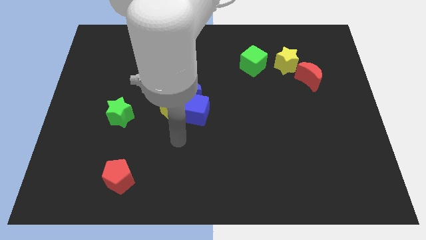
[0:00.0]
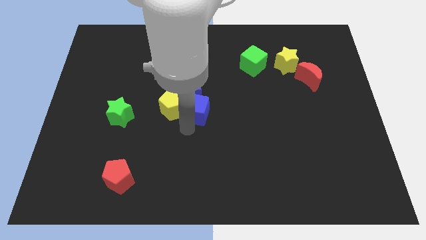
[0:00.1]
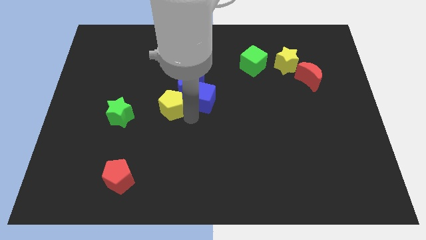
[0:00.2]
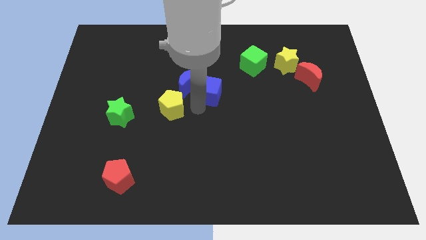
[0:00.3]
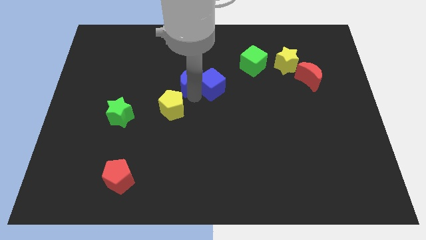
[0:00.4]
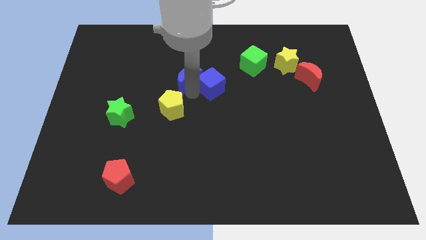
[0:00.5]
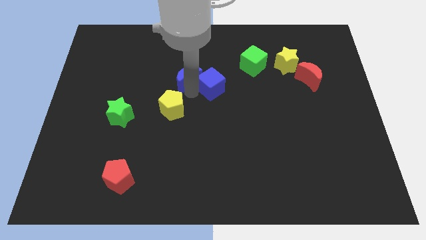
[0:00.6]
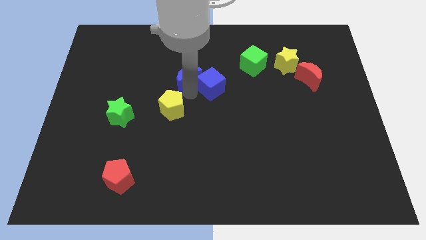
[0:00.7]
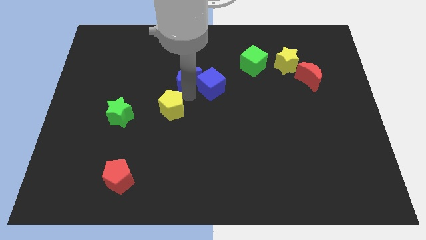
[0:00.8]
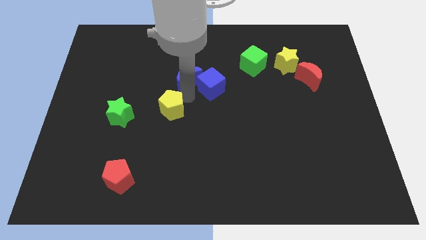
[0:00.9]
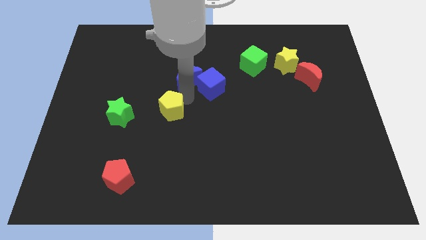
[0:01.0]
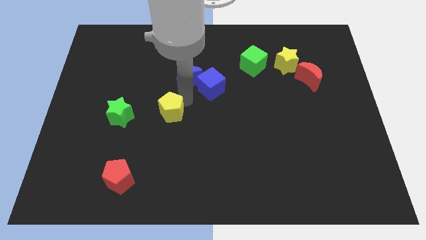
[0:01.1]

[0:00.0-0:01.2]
separate the yellow pentagon from the blue moon and blue cube

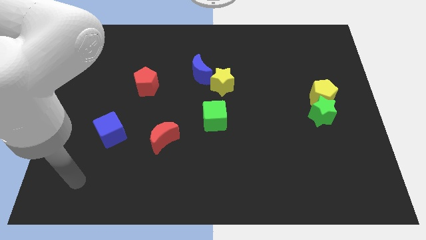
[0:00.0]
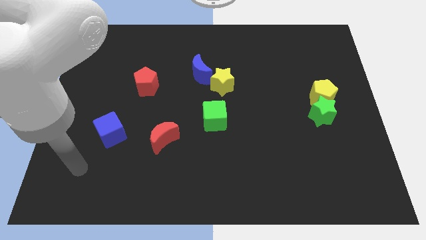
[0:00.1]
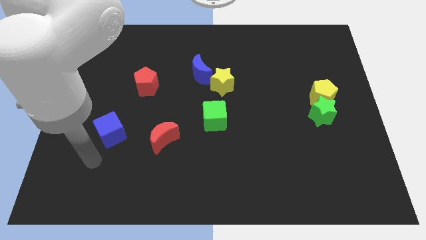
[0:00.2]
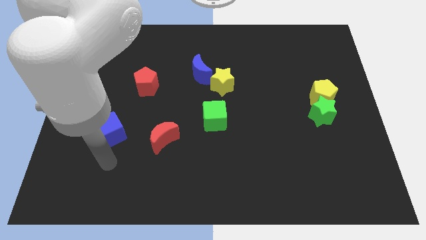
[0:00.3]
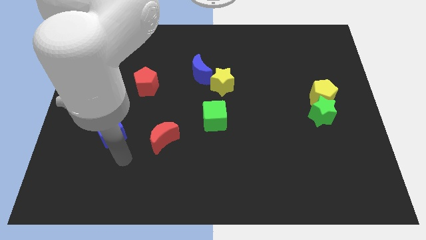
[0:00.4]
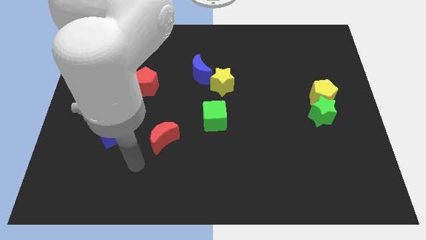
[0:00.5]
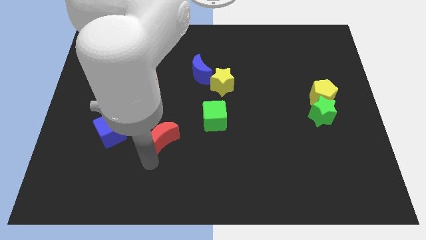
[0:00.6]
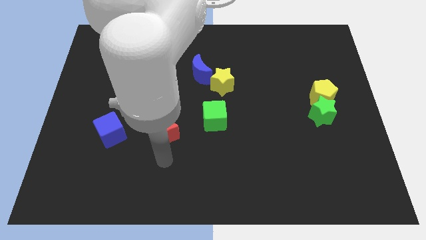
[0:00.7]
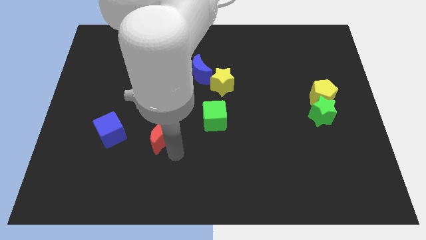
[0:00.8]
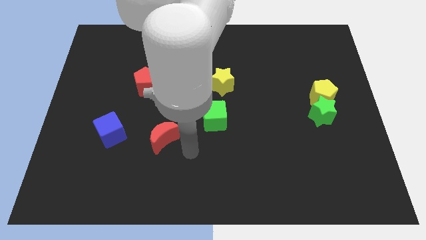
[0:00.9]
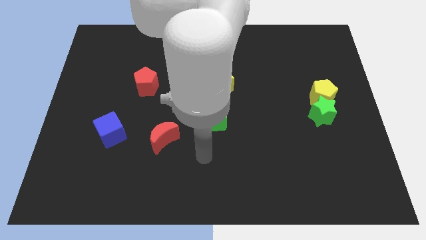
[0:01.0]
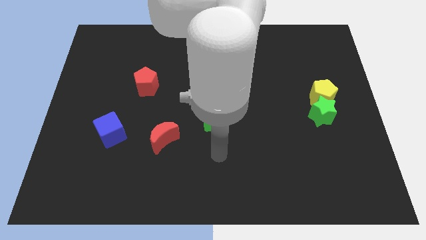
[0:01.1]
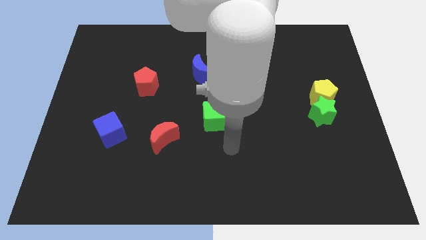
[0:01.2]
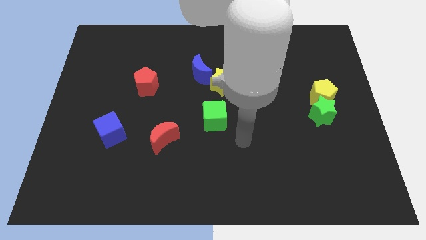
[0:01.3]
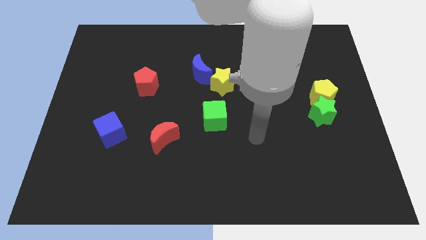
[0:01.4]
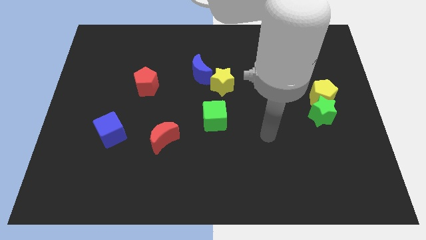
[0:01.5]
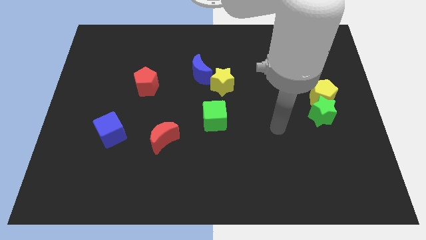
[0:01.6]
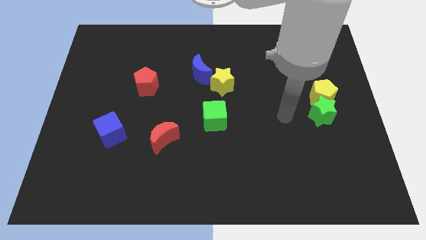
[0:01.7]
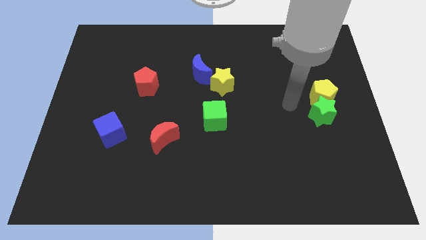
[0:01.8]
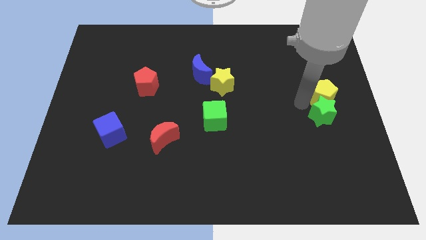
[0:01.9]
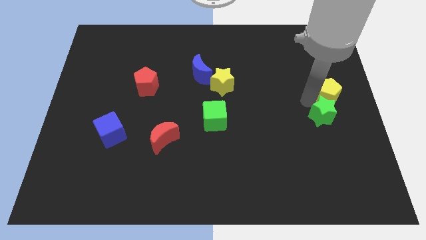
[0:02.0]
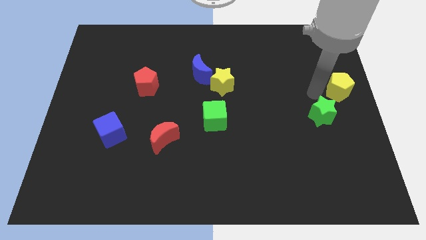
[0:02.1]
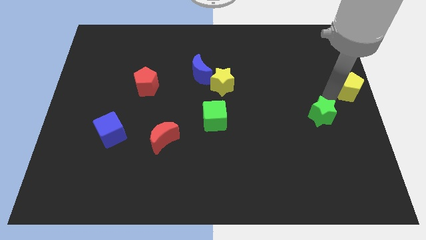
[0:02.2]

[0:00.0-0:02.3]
pull the green star apart from the yellow pentagon

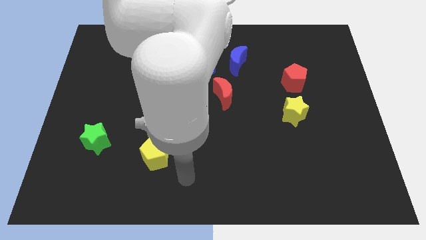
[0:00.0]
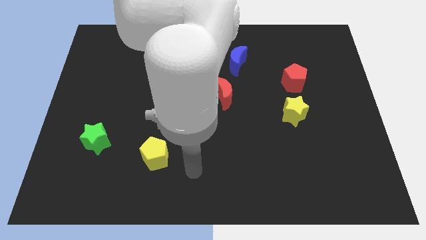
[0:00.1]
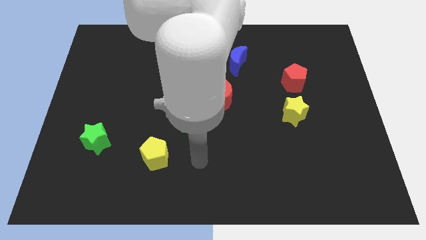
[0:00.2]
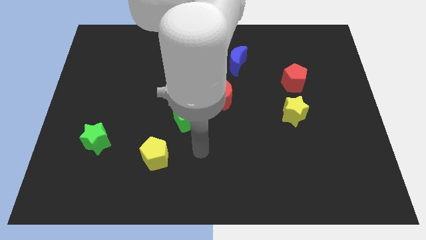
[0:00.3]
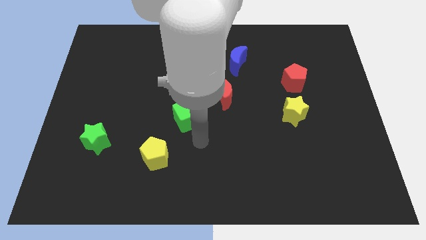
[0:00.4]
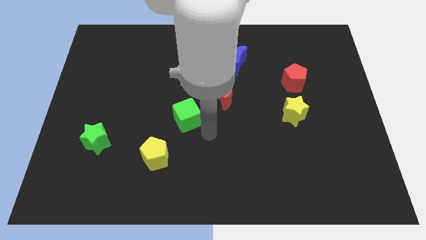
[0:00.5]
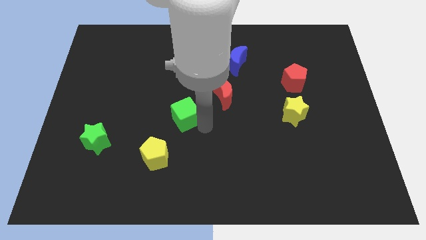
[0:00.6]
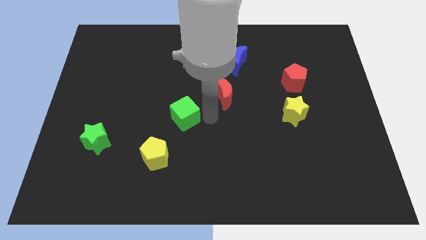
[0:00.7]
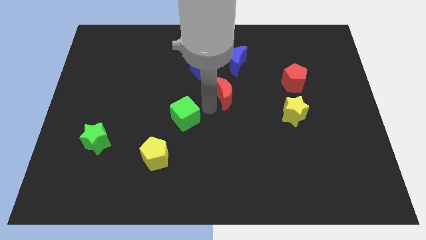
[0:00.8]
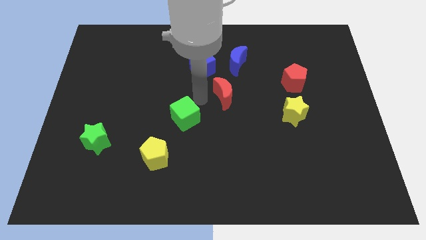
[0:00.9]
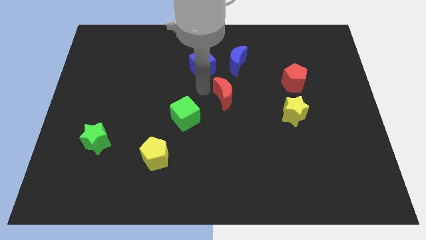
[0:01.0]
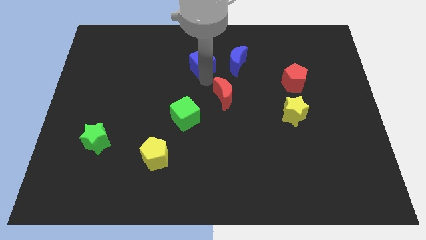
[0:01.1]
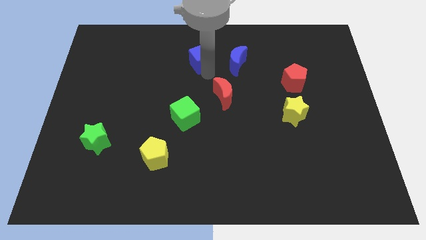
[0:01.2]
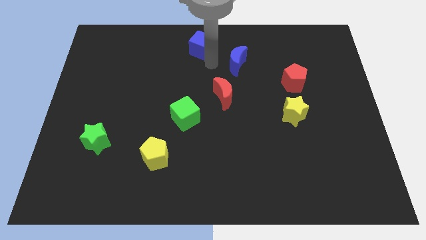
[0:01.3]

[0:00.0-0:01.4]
move the blue moon away from the blue cube

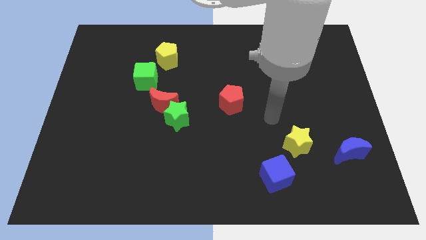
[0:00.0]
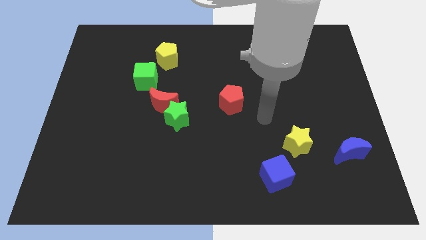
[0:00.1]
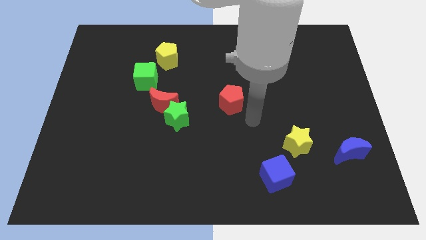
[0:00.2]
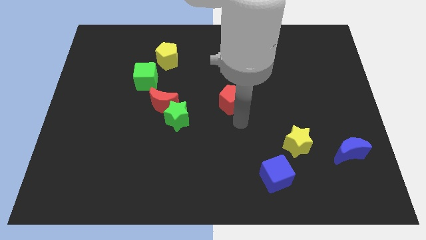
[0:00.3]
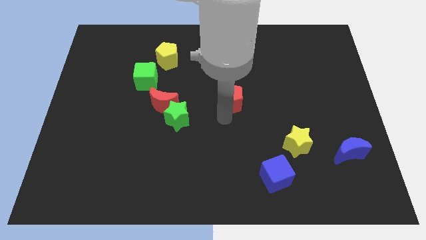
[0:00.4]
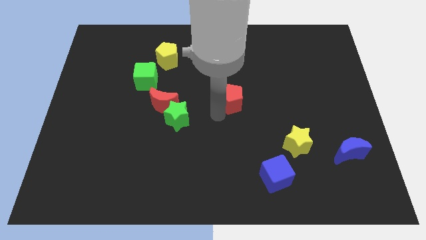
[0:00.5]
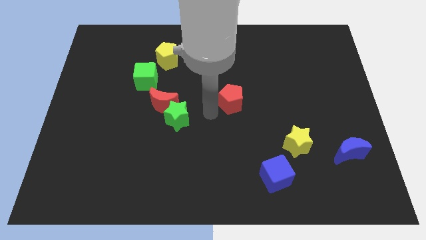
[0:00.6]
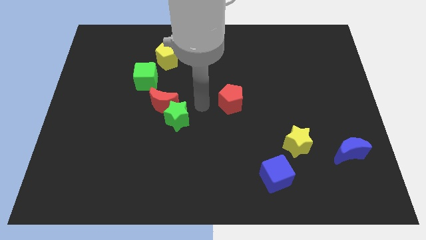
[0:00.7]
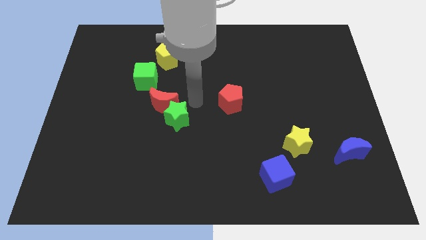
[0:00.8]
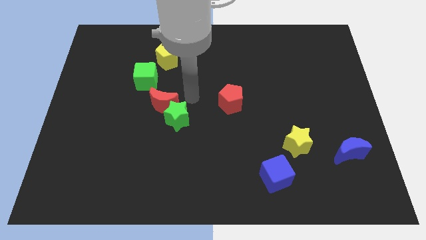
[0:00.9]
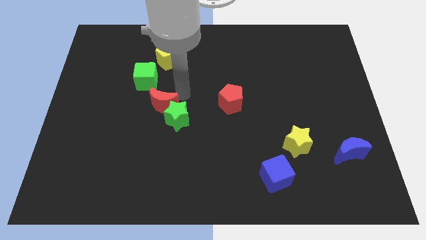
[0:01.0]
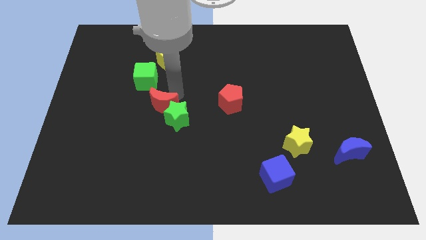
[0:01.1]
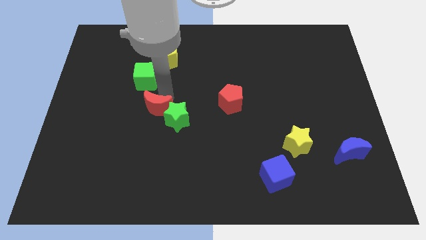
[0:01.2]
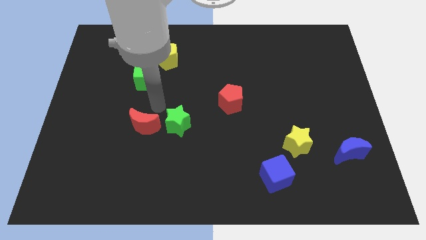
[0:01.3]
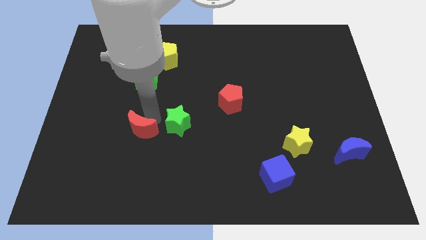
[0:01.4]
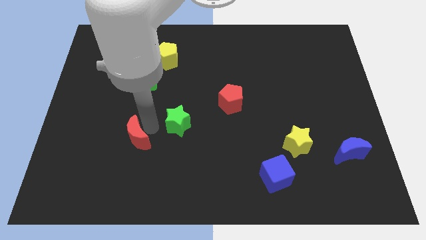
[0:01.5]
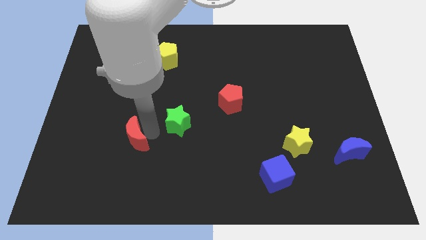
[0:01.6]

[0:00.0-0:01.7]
separate the green star from the red moon

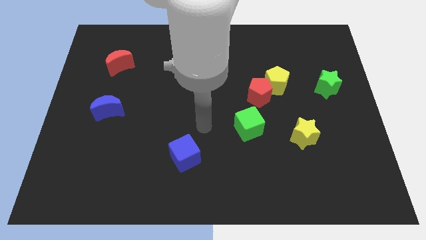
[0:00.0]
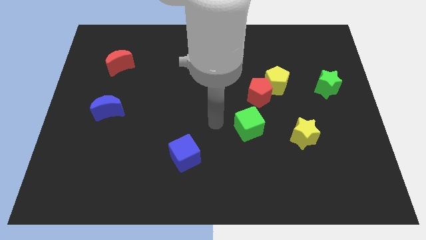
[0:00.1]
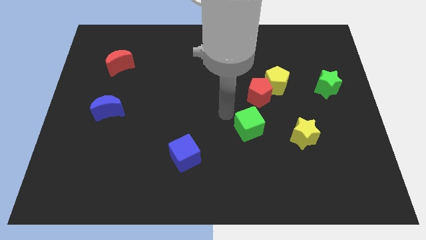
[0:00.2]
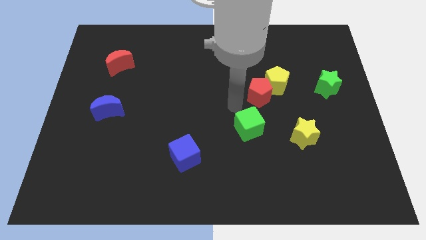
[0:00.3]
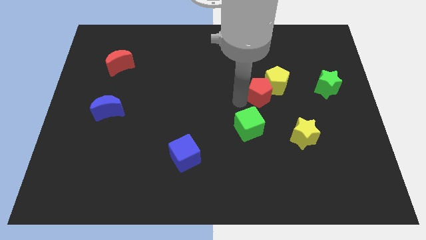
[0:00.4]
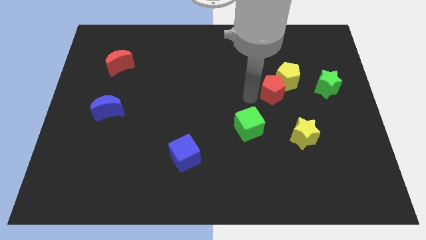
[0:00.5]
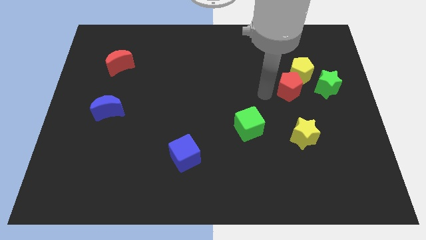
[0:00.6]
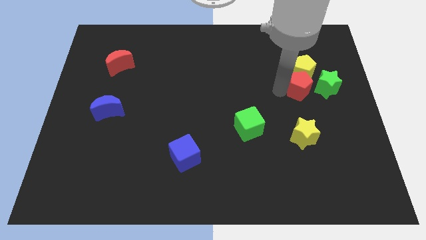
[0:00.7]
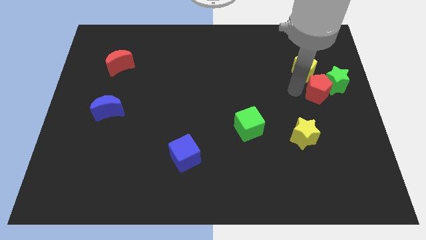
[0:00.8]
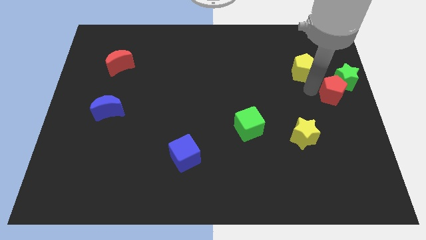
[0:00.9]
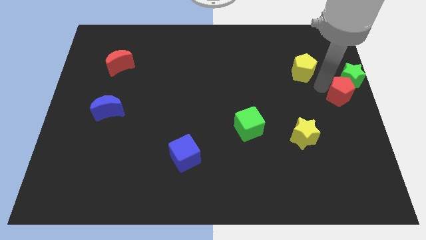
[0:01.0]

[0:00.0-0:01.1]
pull the yellow pentagon apart from the red pentagon

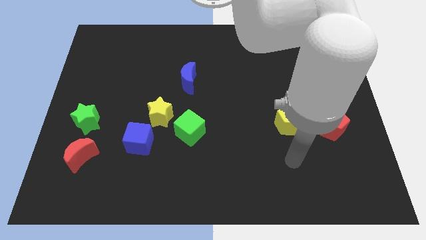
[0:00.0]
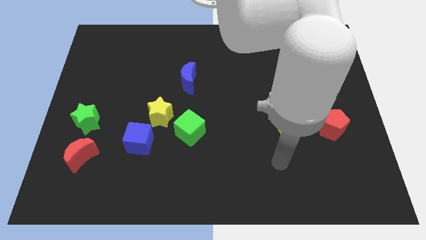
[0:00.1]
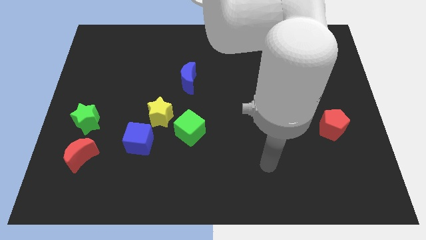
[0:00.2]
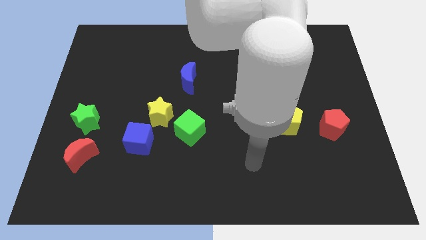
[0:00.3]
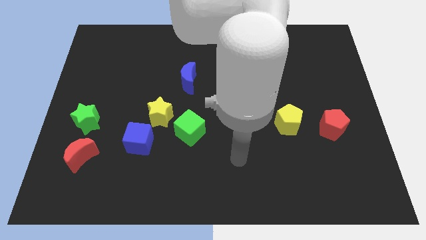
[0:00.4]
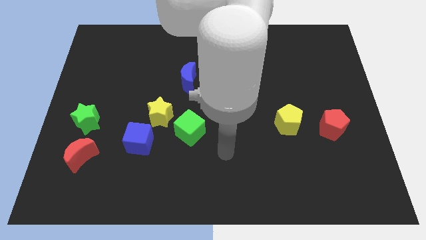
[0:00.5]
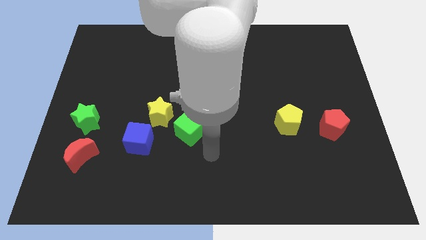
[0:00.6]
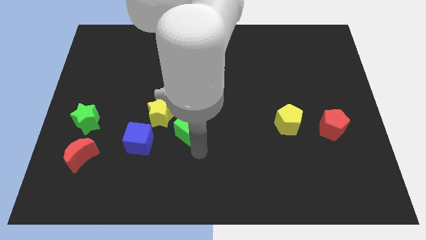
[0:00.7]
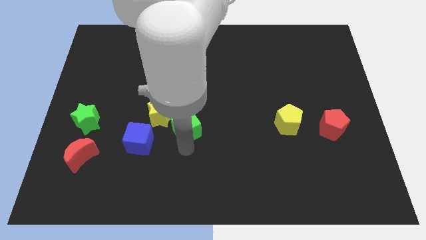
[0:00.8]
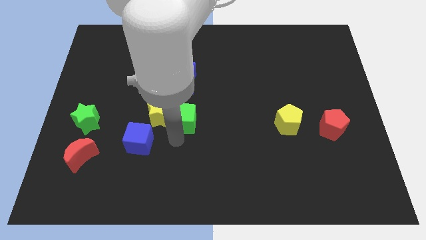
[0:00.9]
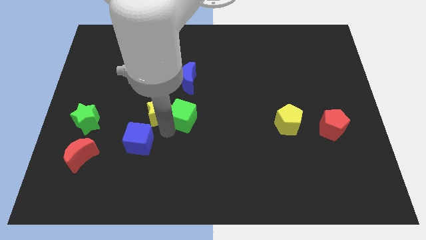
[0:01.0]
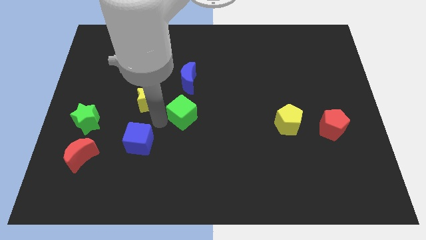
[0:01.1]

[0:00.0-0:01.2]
pull the blue cube apart from the yellow star

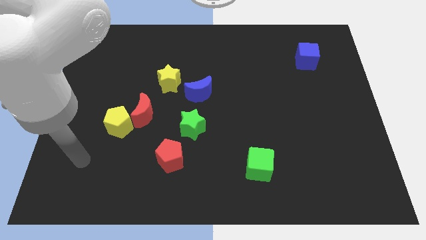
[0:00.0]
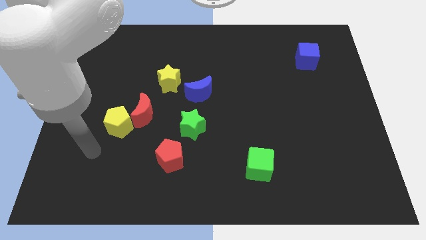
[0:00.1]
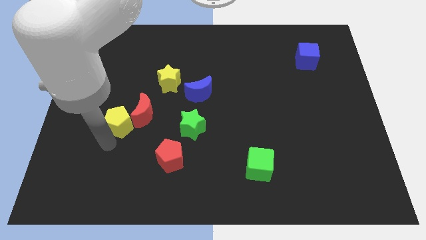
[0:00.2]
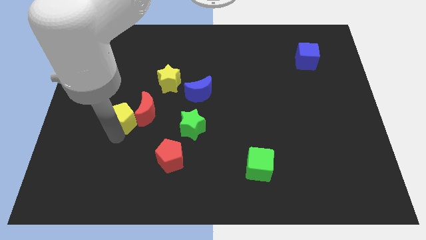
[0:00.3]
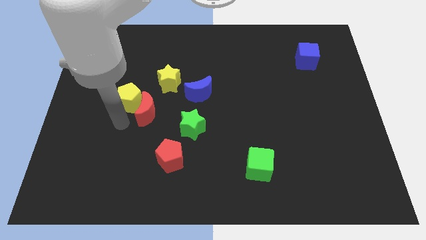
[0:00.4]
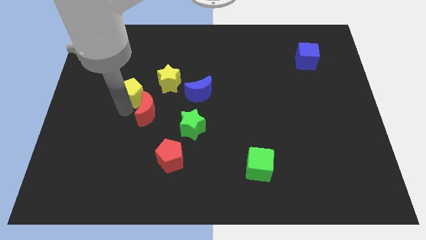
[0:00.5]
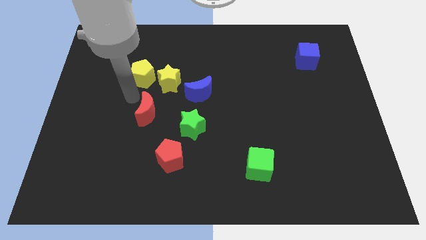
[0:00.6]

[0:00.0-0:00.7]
move the red moon away from the yellow pentagon
